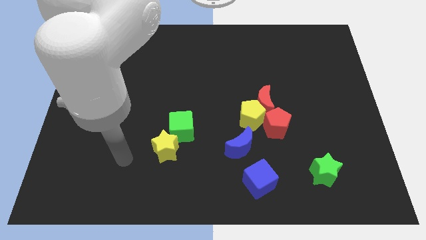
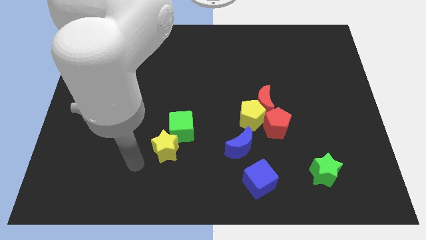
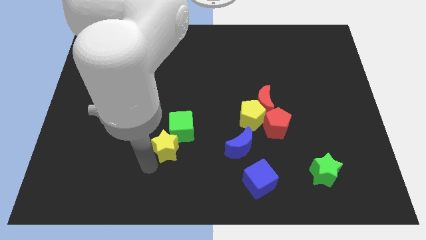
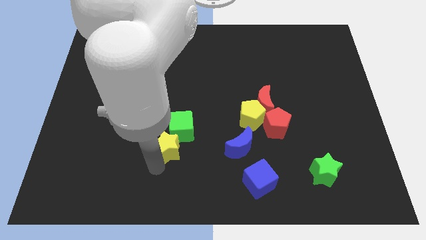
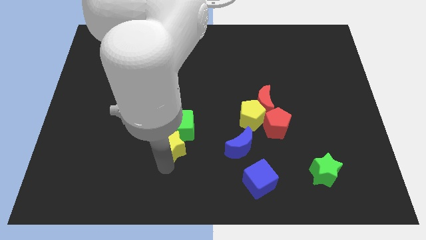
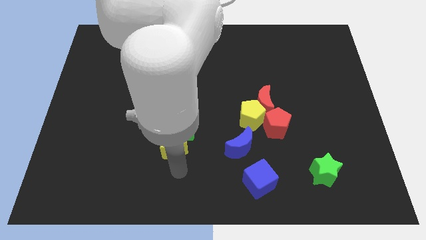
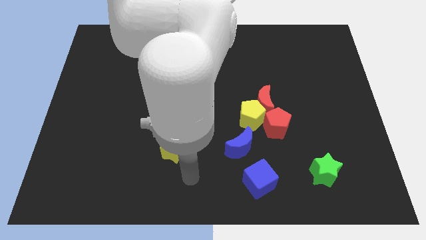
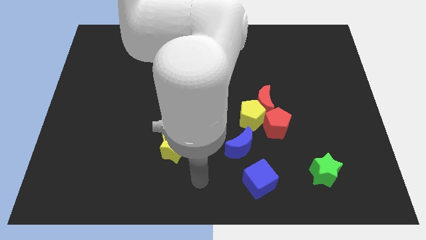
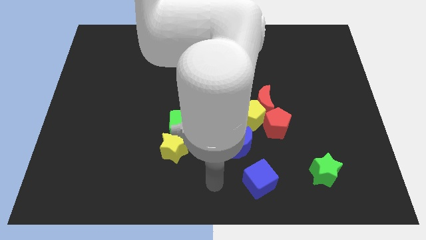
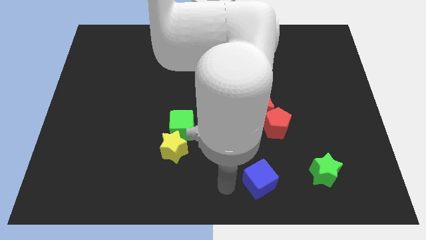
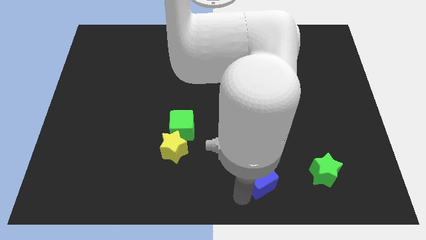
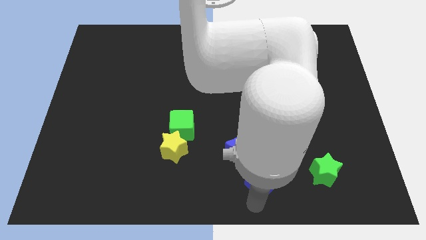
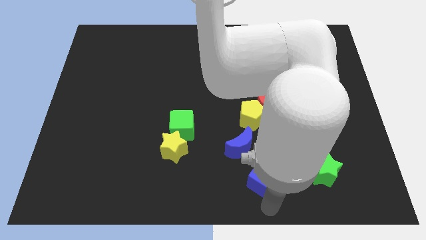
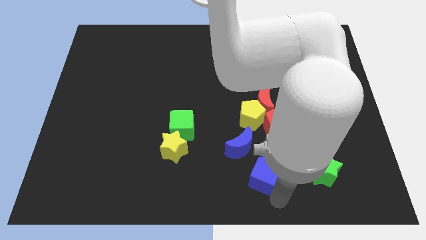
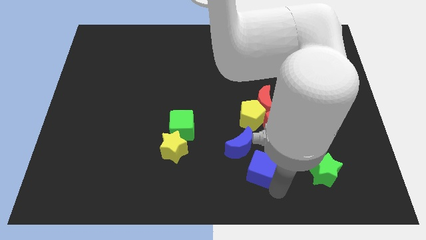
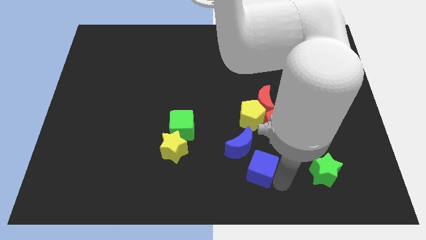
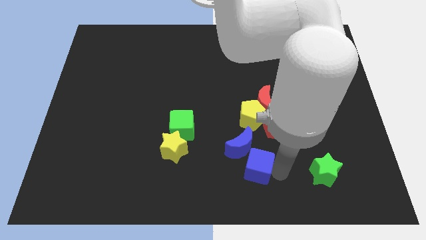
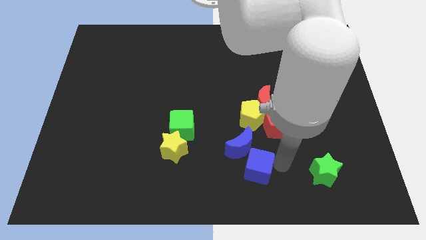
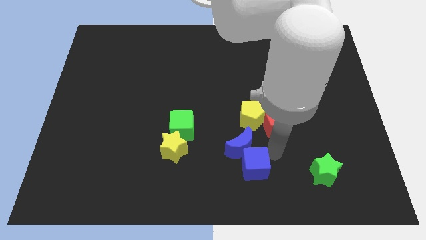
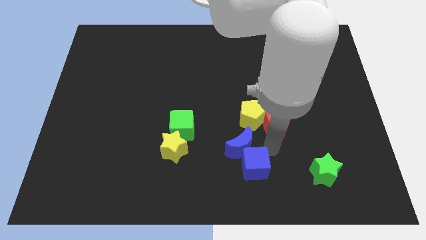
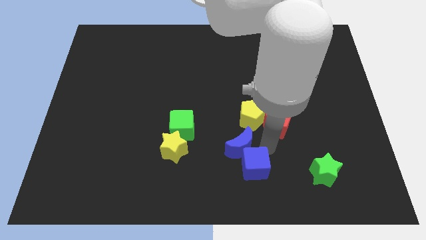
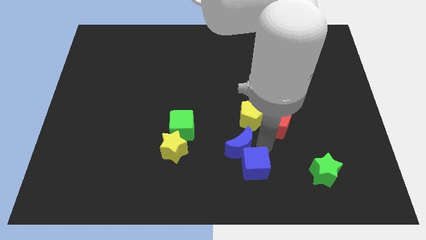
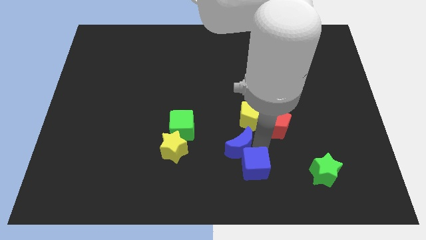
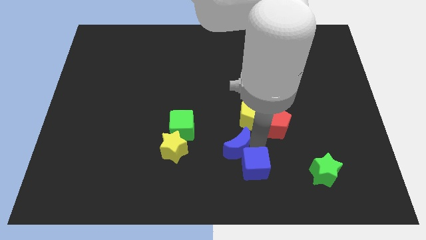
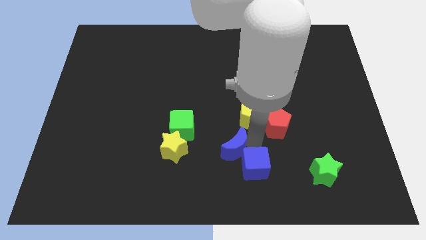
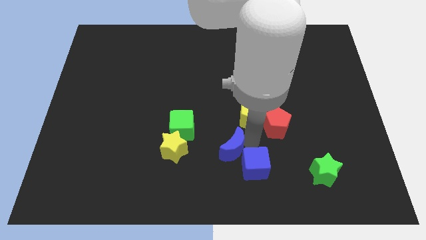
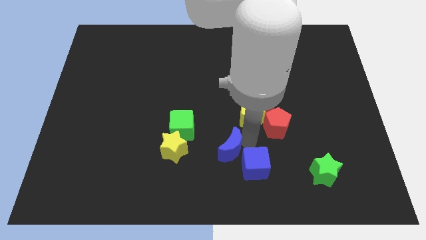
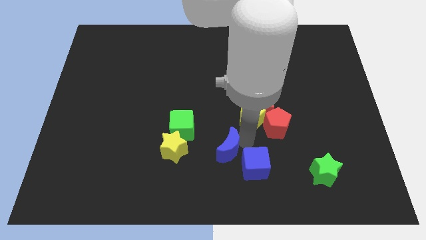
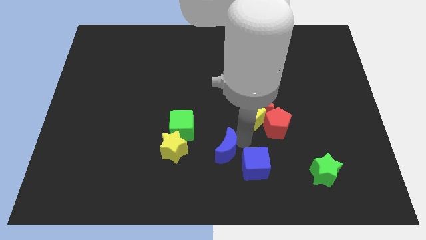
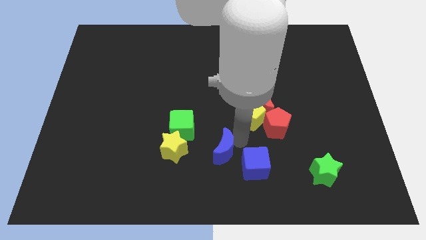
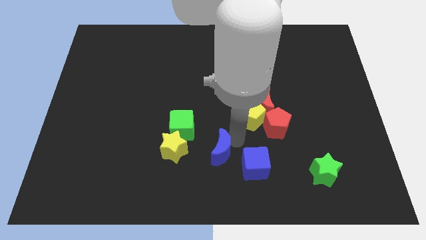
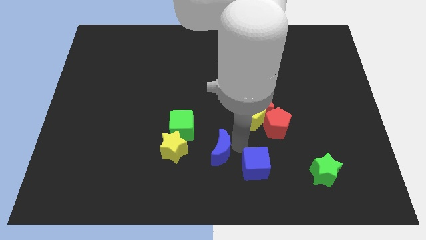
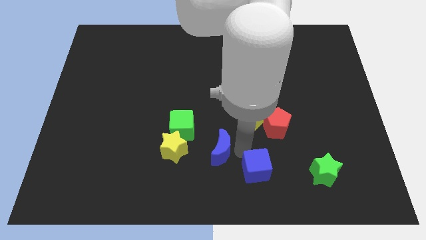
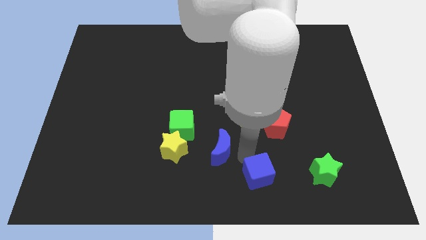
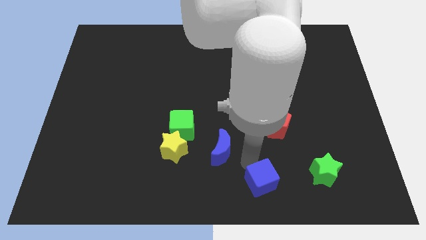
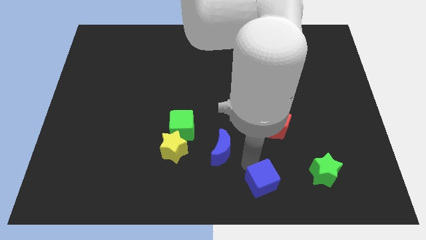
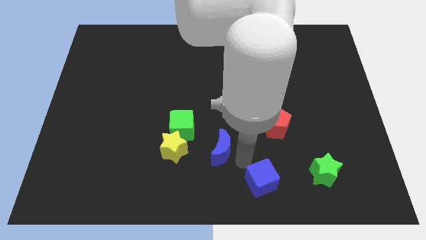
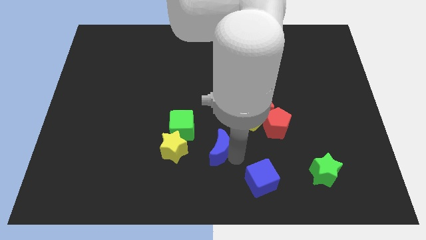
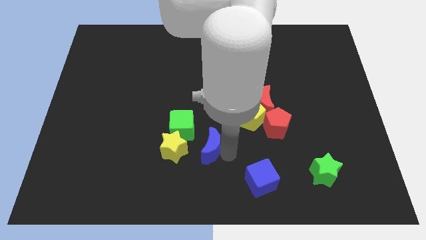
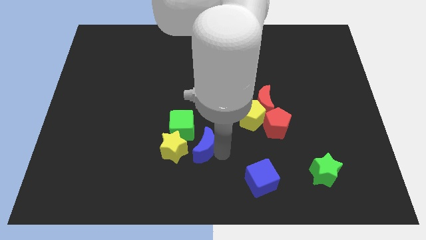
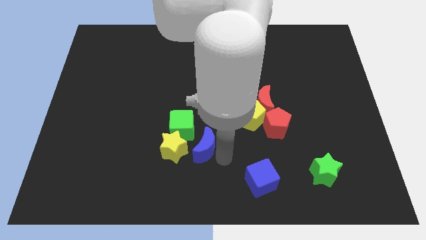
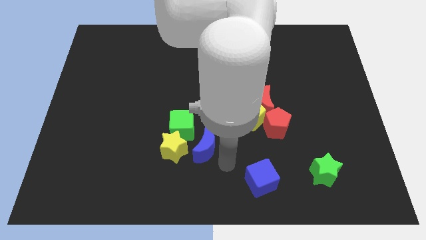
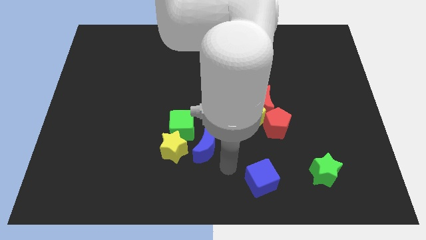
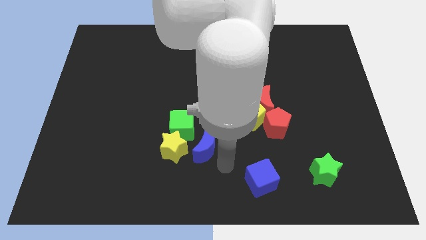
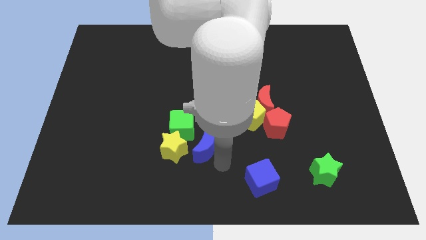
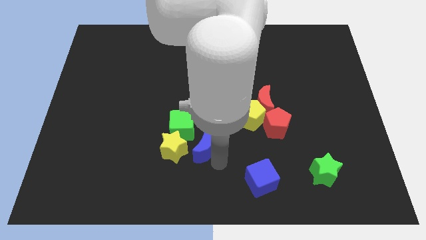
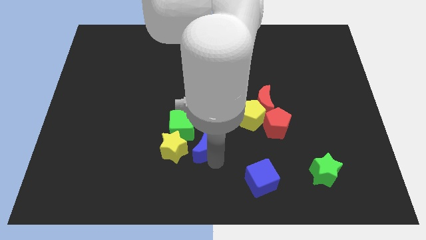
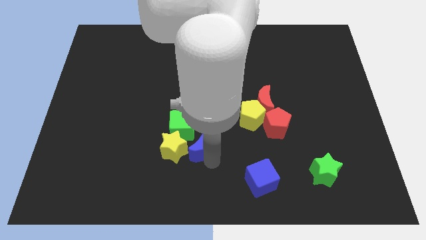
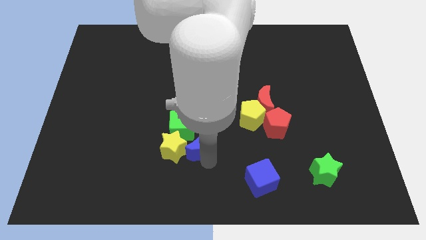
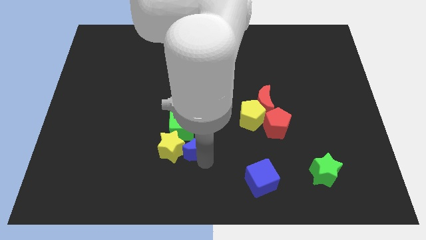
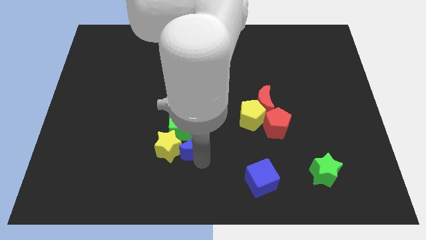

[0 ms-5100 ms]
put the blue moon to the green cube

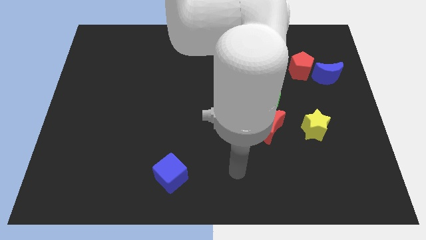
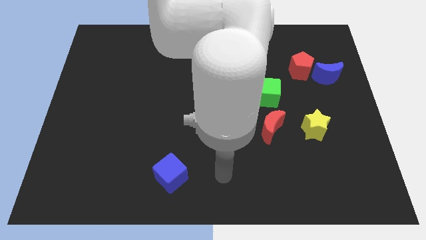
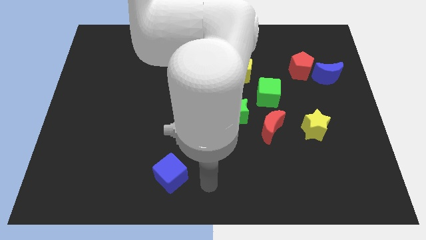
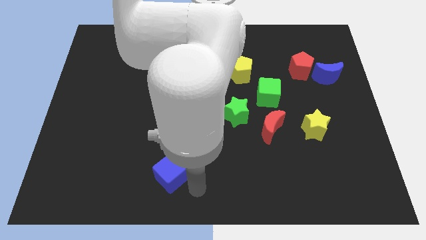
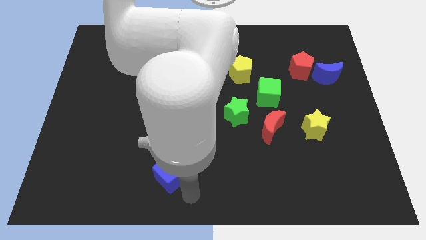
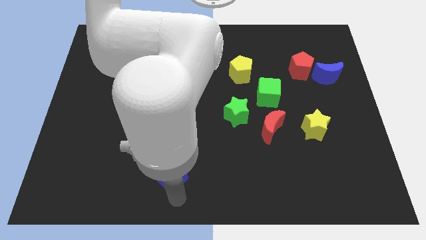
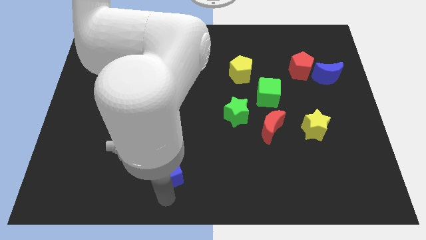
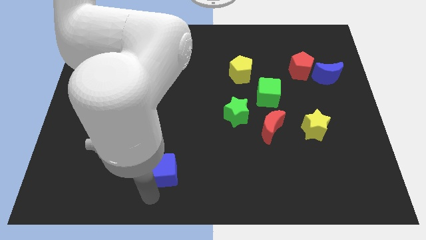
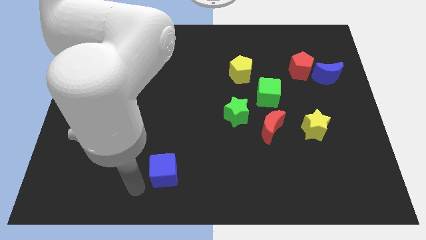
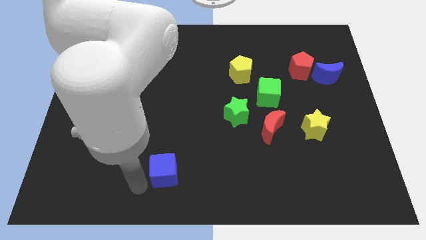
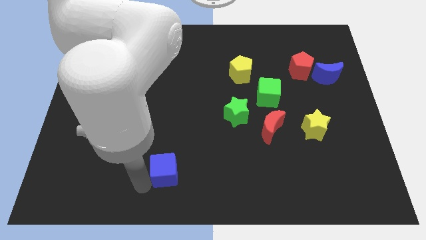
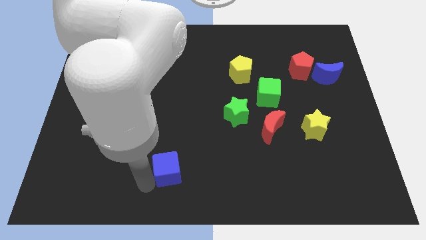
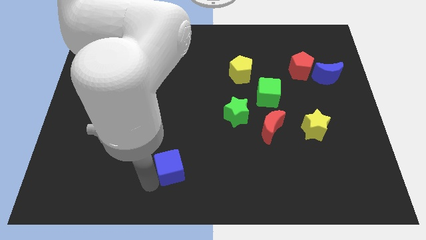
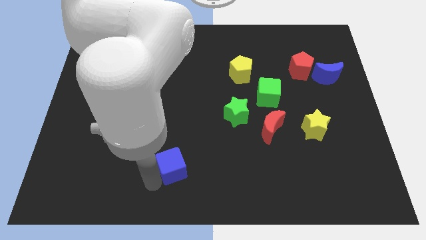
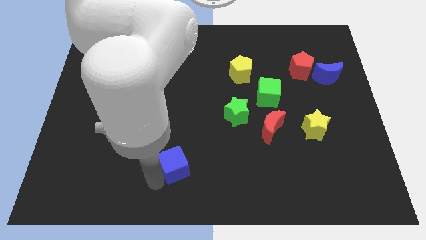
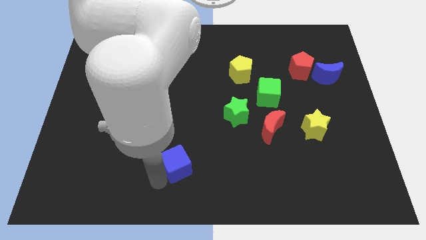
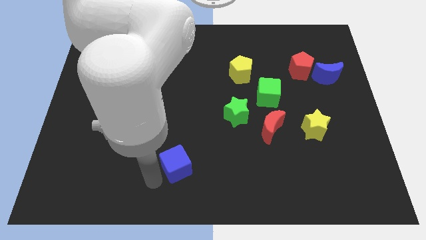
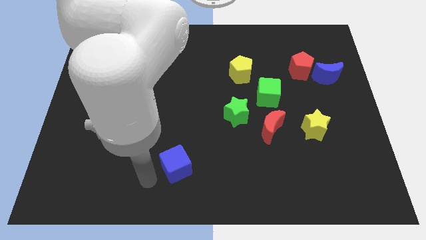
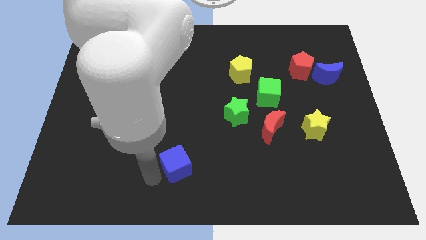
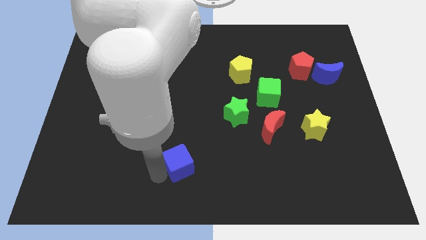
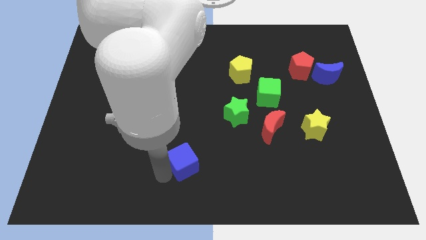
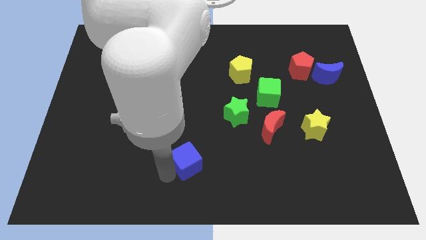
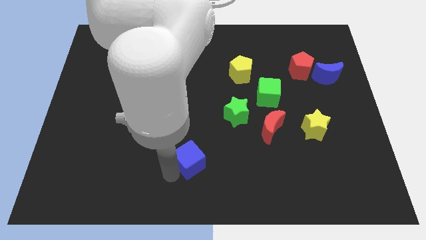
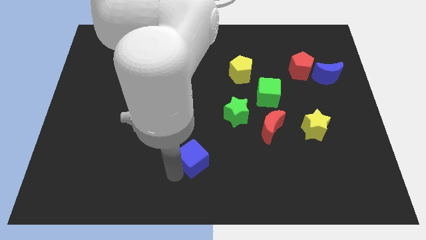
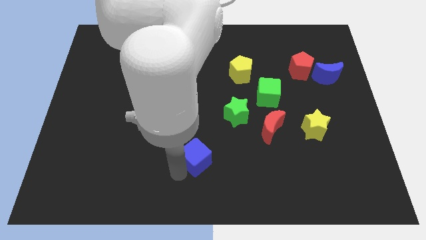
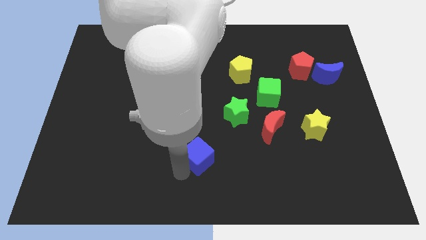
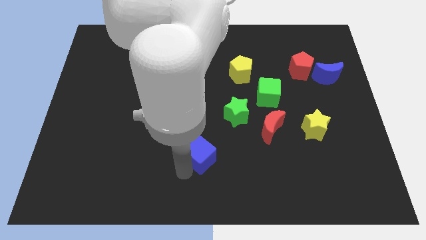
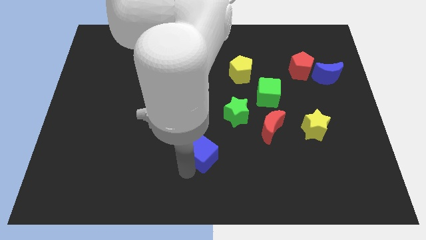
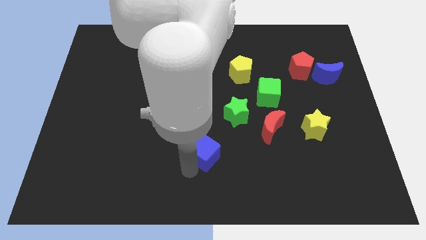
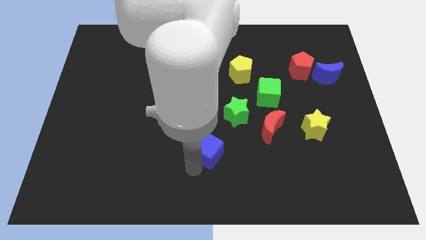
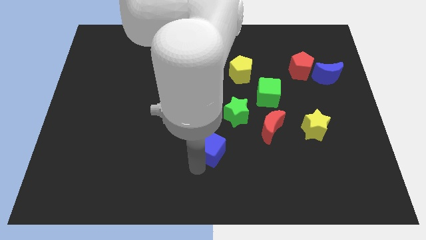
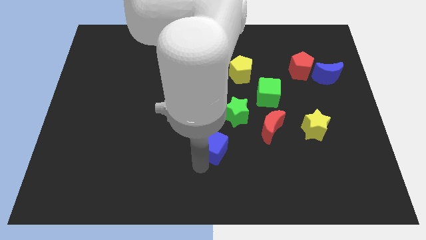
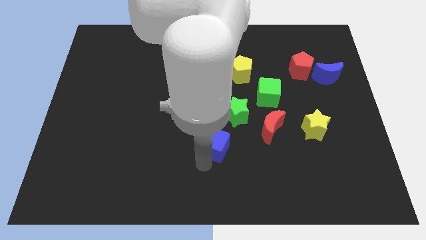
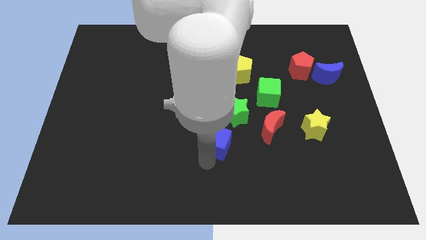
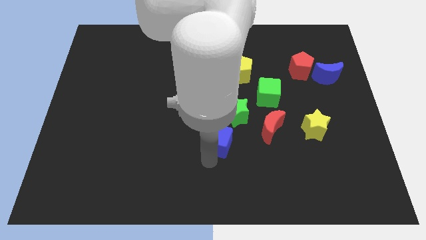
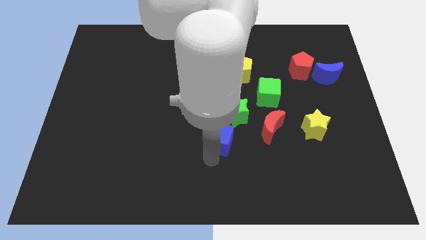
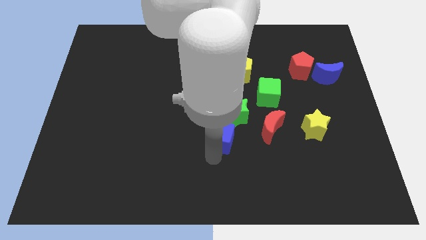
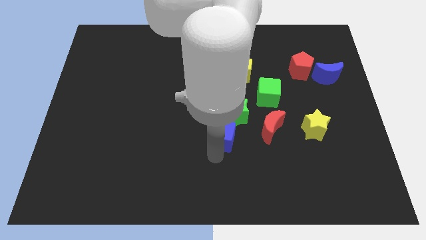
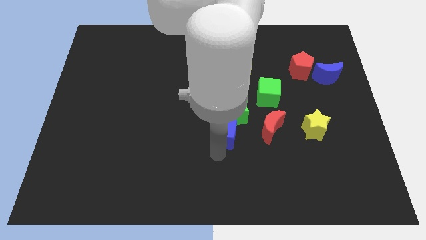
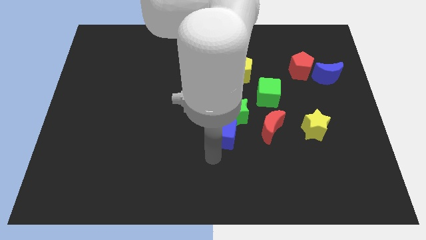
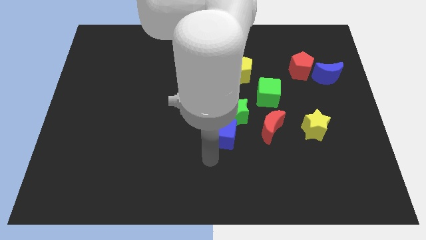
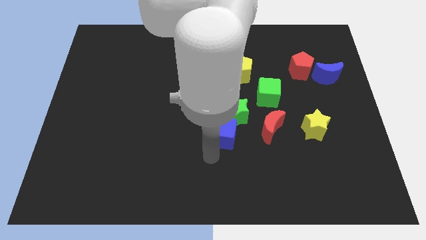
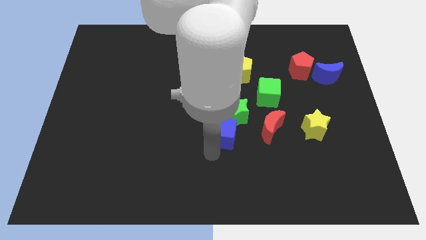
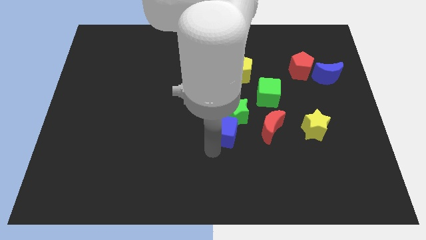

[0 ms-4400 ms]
move the blue cube close to the green star
